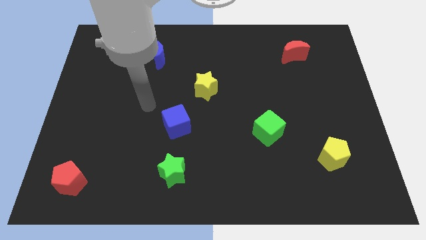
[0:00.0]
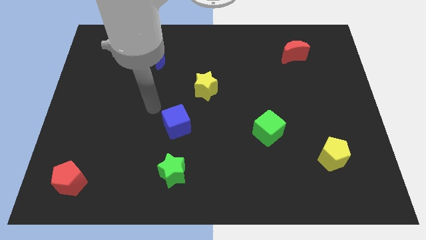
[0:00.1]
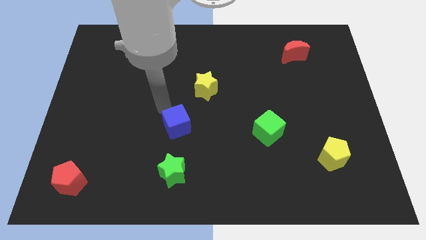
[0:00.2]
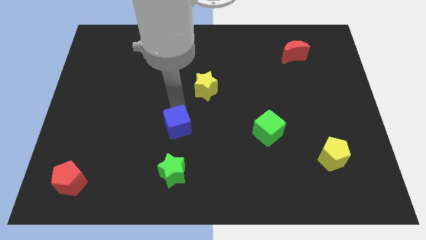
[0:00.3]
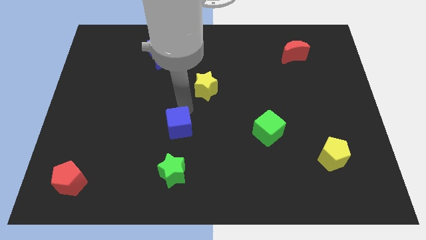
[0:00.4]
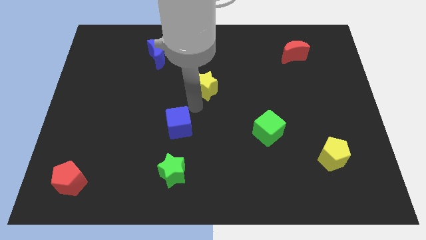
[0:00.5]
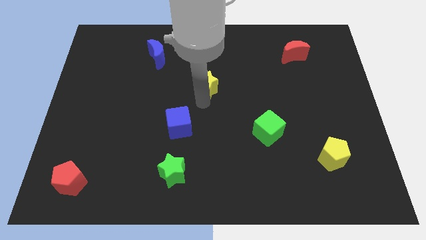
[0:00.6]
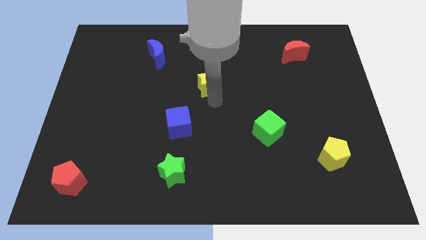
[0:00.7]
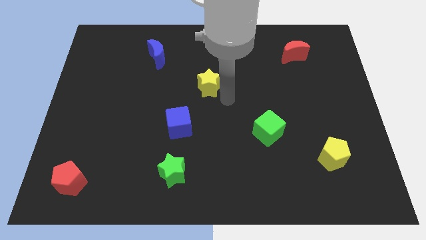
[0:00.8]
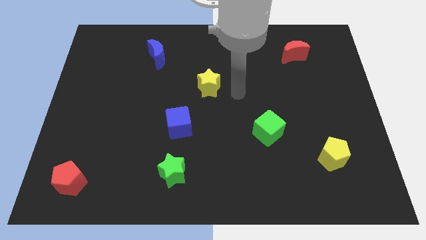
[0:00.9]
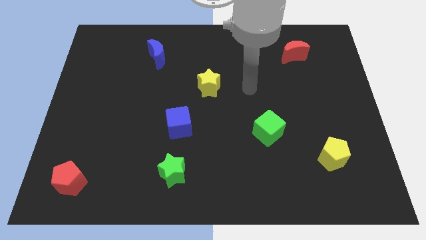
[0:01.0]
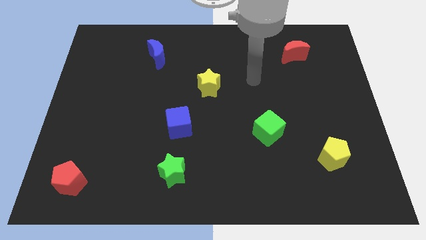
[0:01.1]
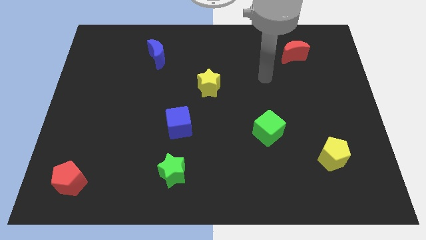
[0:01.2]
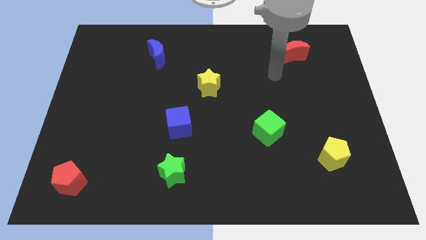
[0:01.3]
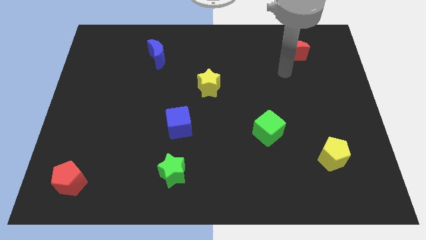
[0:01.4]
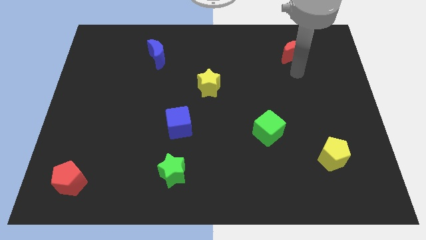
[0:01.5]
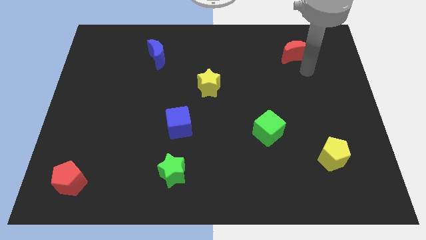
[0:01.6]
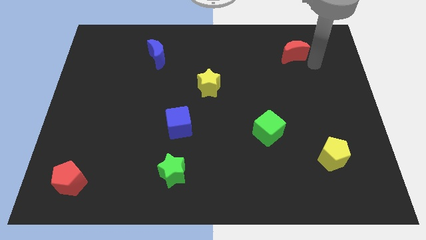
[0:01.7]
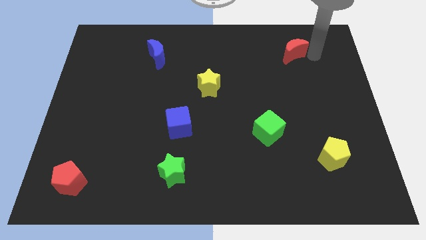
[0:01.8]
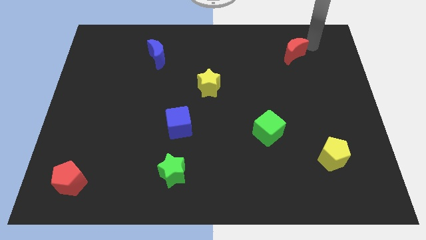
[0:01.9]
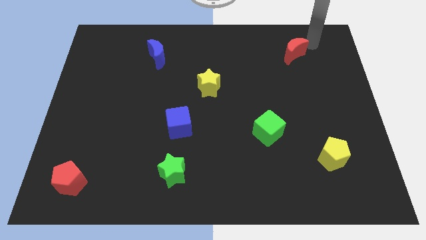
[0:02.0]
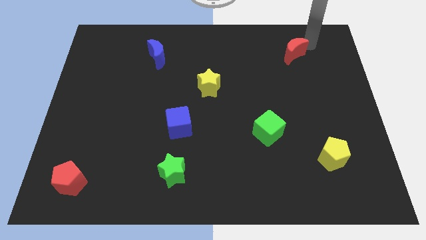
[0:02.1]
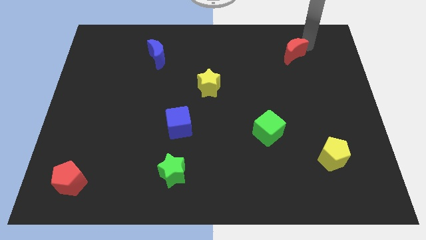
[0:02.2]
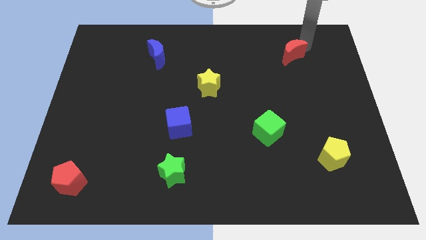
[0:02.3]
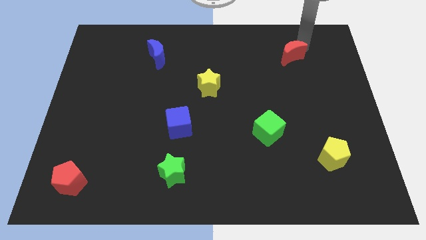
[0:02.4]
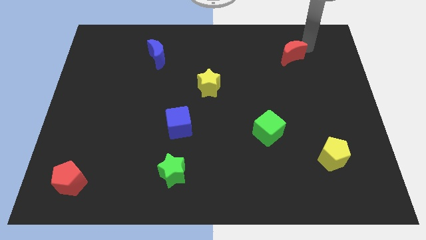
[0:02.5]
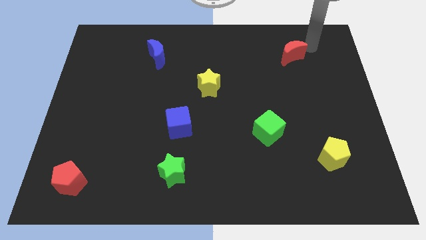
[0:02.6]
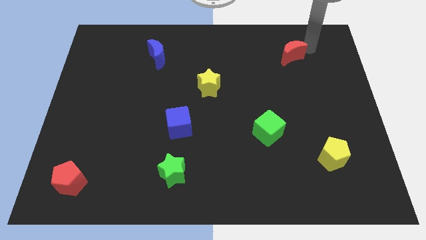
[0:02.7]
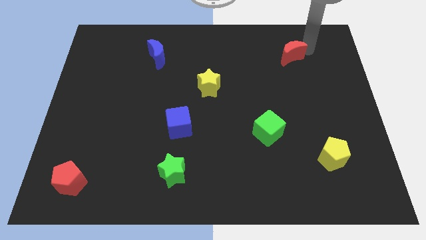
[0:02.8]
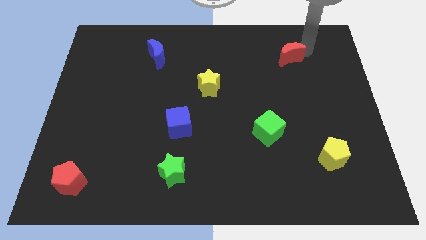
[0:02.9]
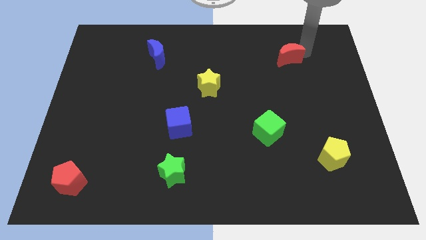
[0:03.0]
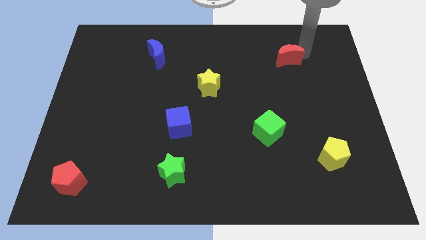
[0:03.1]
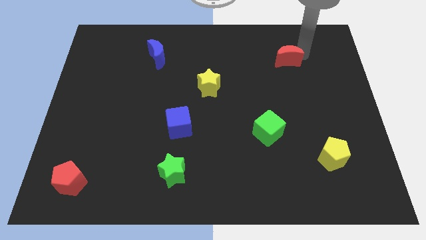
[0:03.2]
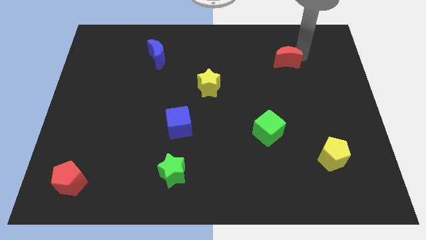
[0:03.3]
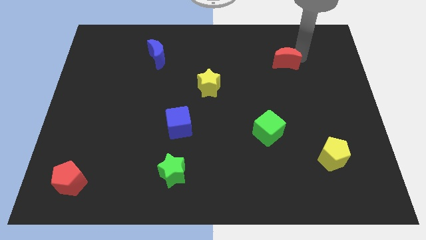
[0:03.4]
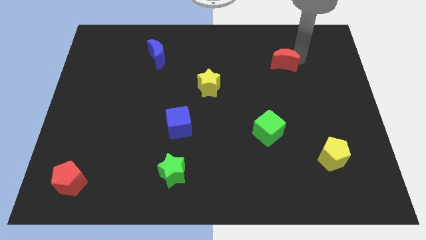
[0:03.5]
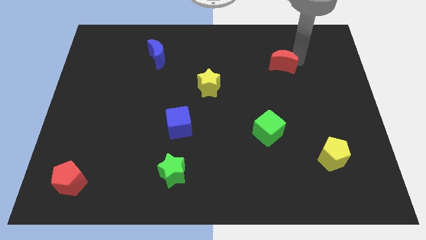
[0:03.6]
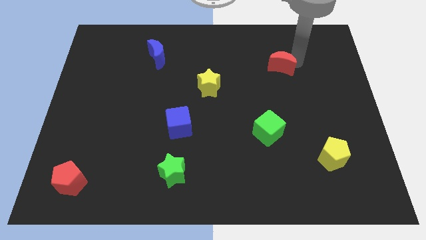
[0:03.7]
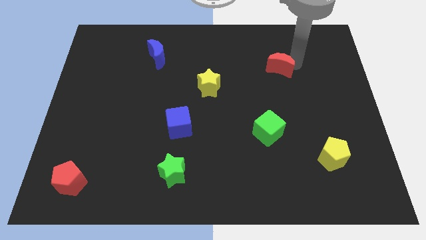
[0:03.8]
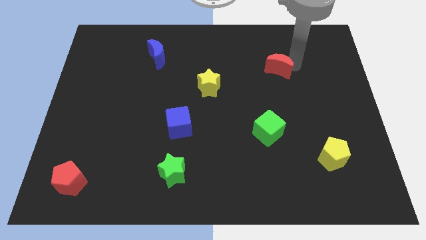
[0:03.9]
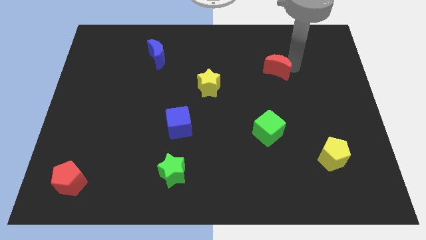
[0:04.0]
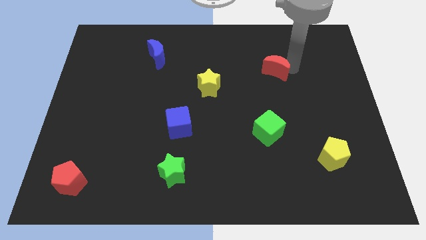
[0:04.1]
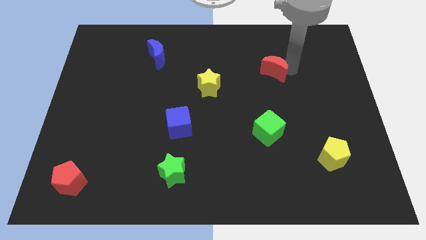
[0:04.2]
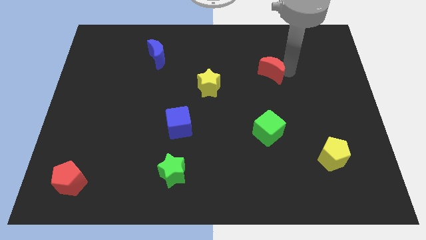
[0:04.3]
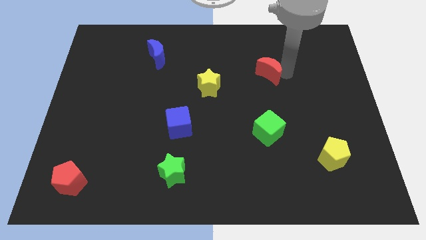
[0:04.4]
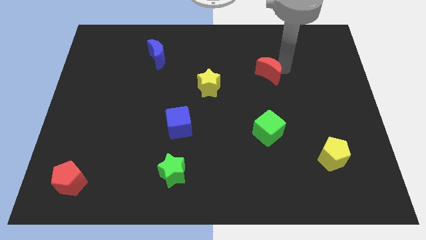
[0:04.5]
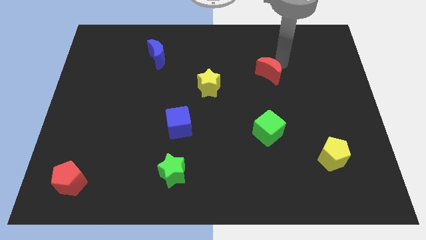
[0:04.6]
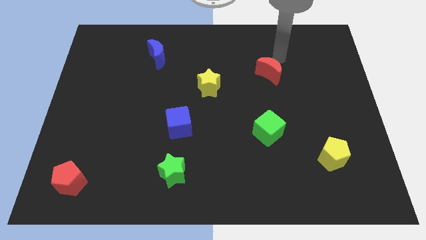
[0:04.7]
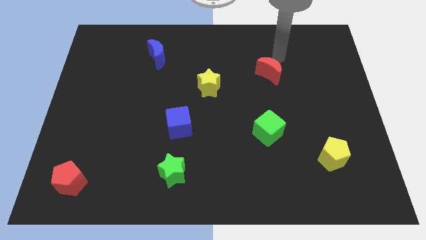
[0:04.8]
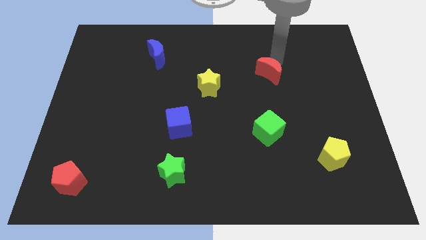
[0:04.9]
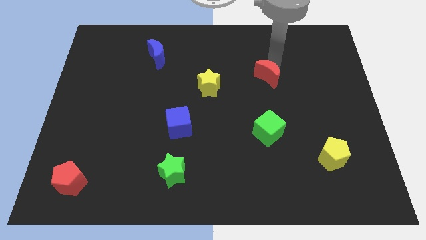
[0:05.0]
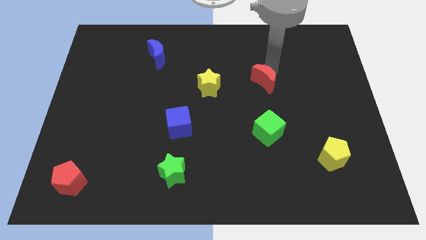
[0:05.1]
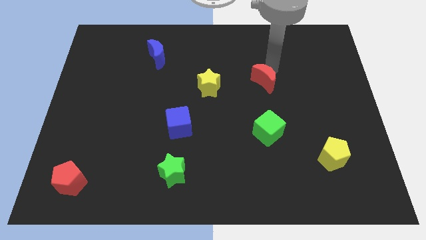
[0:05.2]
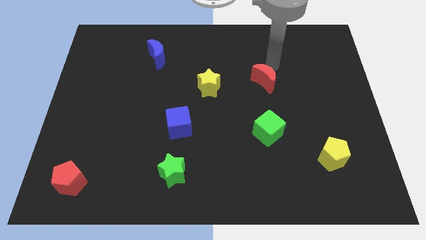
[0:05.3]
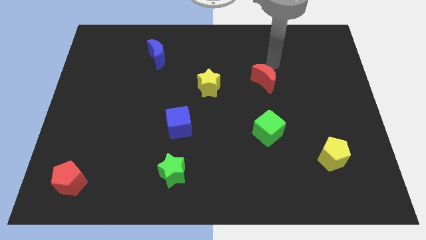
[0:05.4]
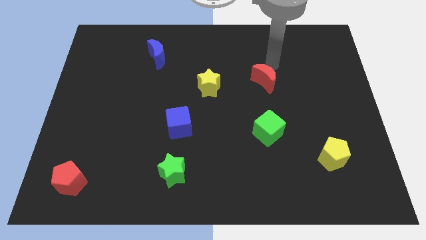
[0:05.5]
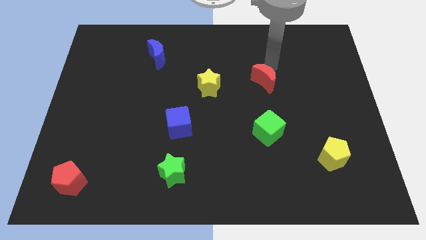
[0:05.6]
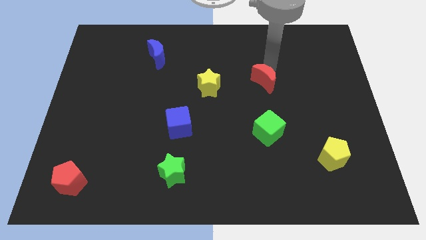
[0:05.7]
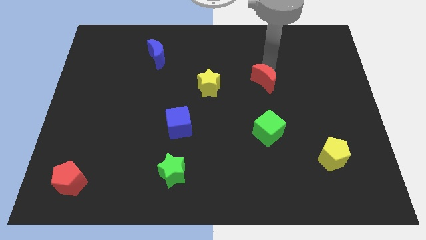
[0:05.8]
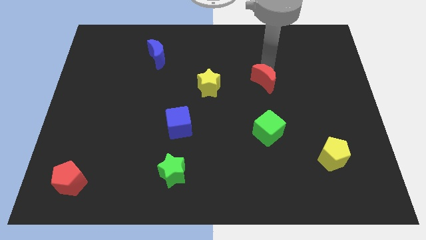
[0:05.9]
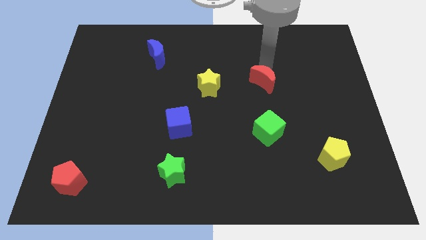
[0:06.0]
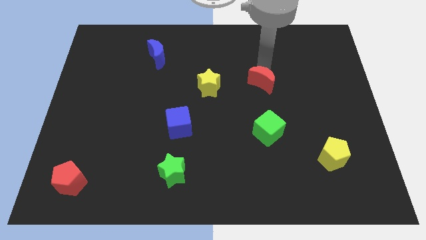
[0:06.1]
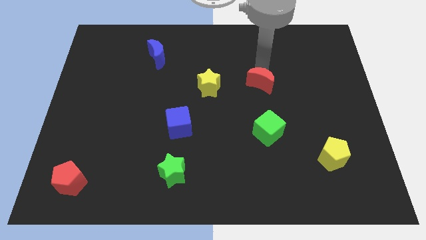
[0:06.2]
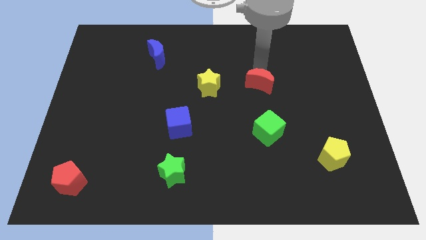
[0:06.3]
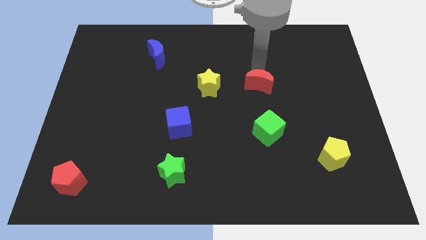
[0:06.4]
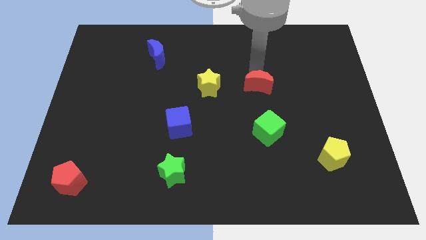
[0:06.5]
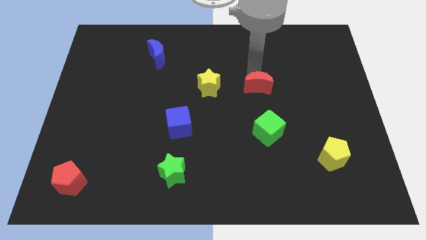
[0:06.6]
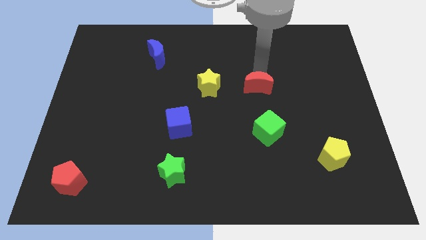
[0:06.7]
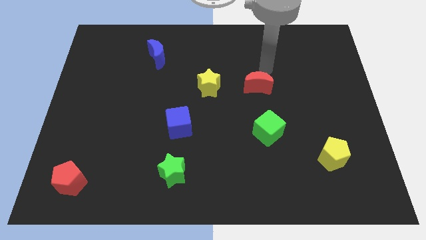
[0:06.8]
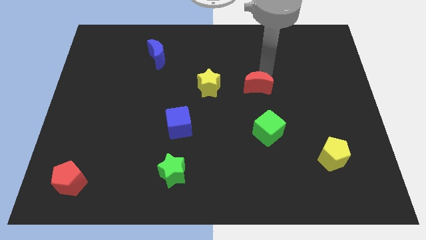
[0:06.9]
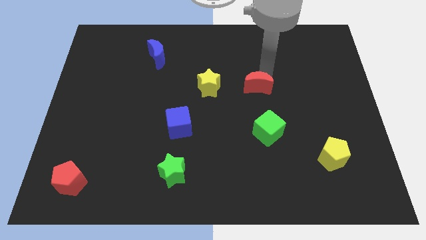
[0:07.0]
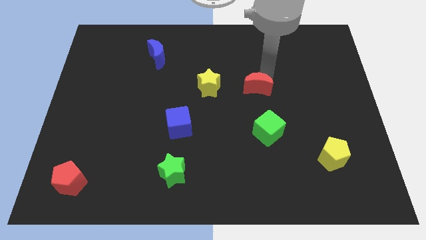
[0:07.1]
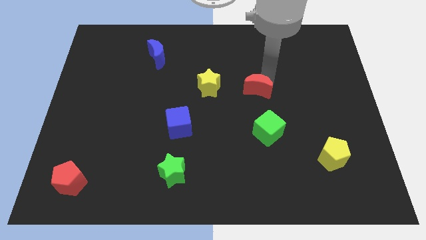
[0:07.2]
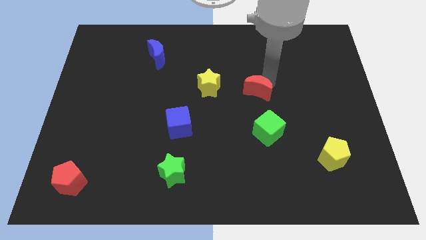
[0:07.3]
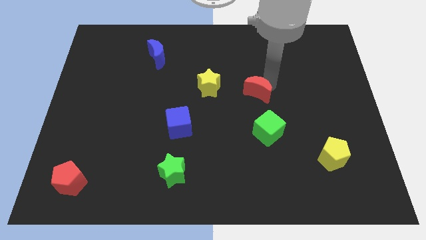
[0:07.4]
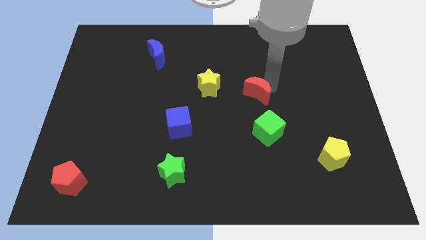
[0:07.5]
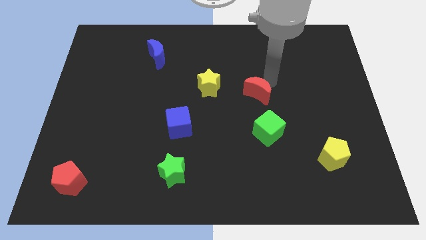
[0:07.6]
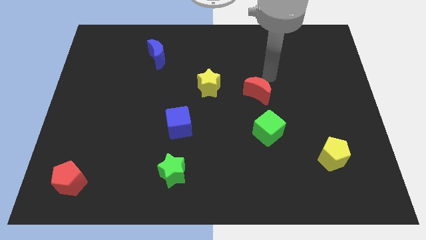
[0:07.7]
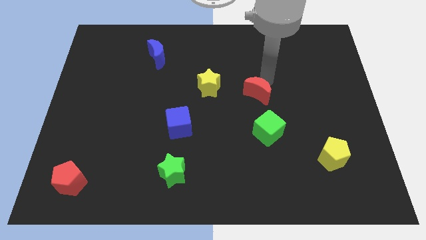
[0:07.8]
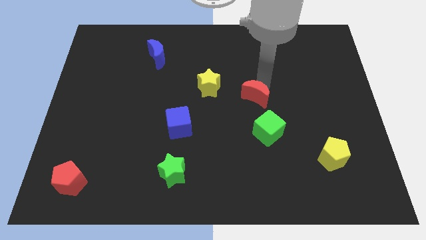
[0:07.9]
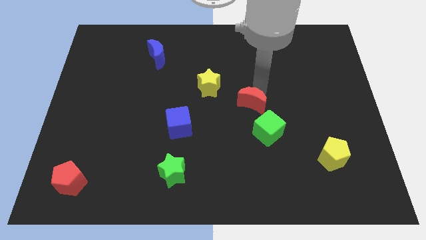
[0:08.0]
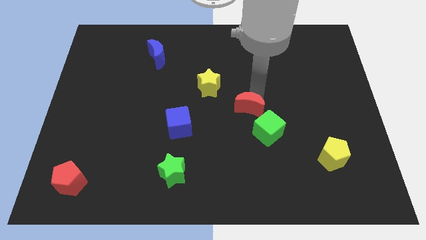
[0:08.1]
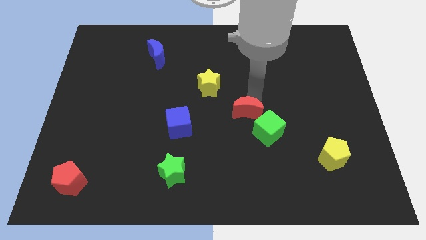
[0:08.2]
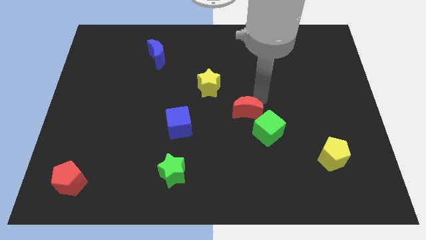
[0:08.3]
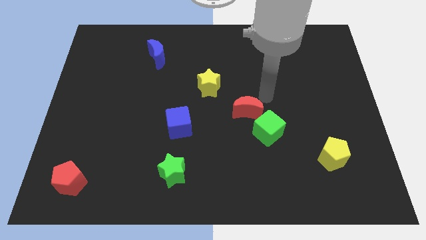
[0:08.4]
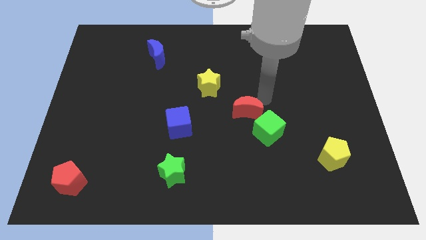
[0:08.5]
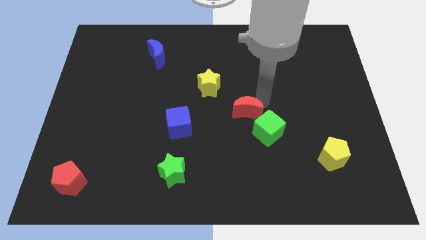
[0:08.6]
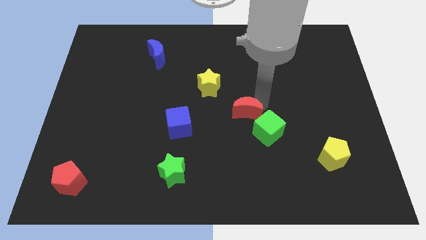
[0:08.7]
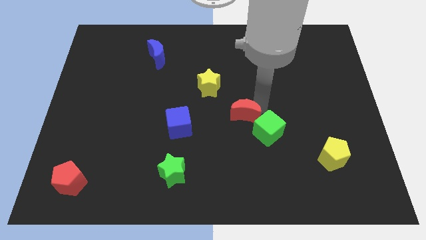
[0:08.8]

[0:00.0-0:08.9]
slide the red moon just left of the green cube
